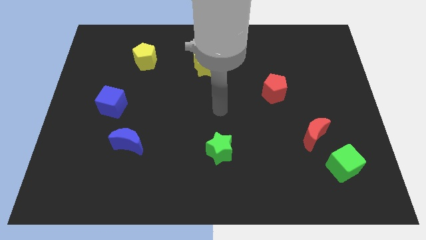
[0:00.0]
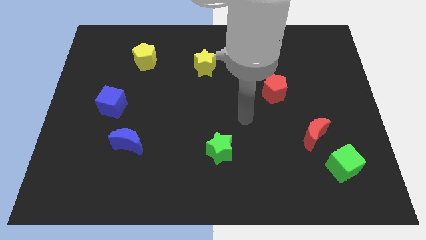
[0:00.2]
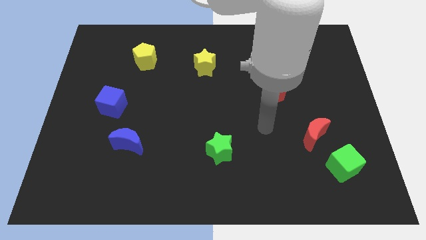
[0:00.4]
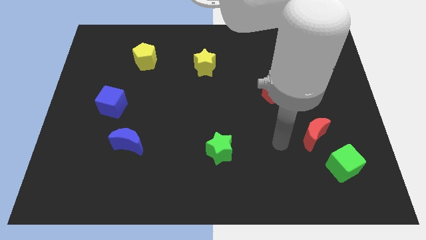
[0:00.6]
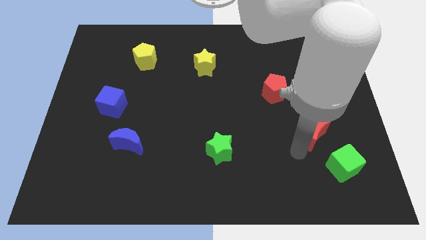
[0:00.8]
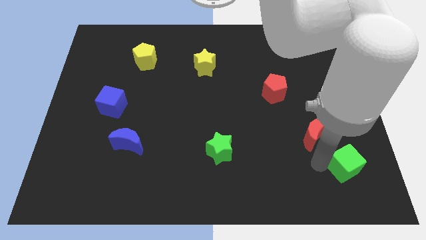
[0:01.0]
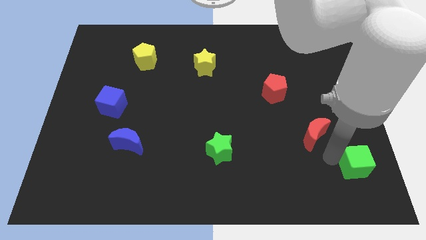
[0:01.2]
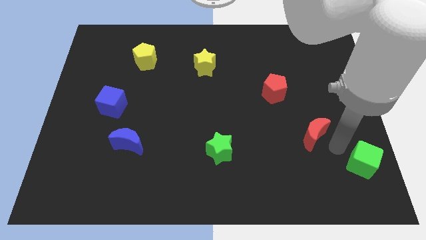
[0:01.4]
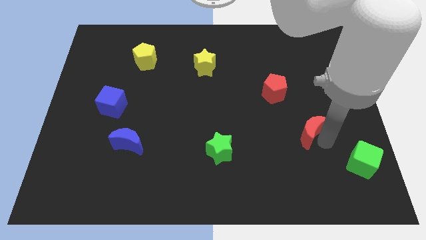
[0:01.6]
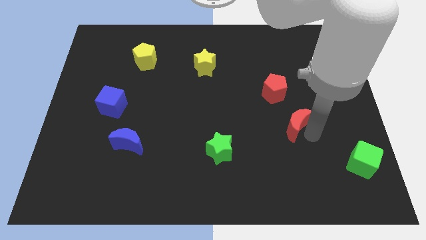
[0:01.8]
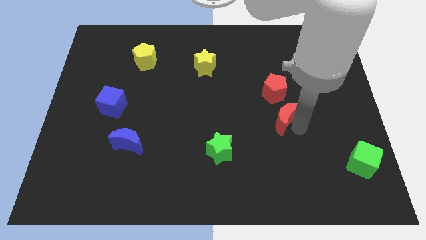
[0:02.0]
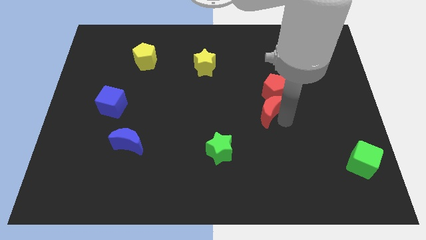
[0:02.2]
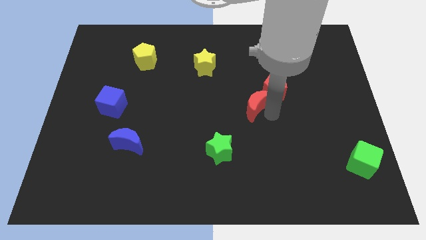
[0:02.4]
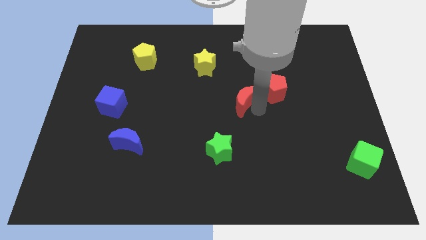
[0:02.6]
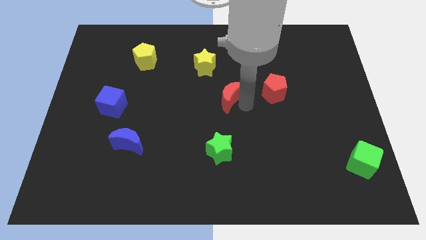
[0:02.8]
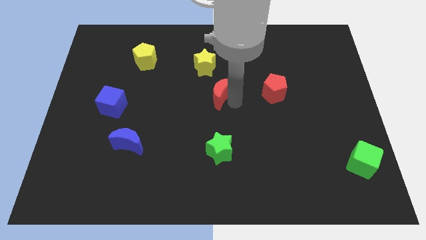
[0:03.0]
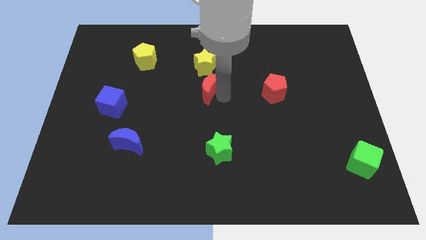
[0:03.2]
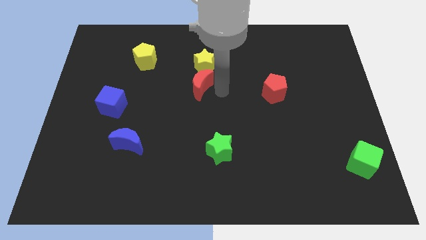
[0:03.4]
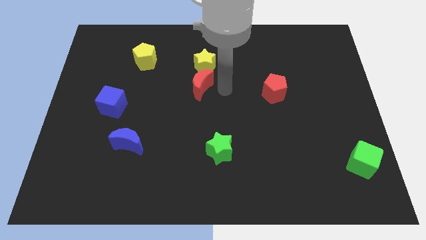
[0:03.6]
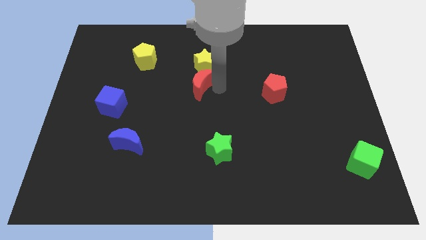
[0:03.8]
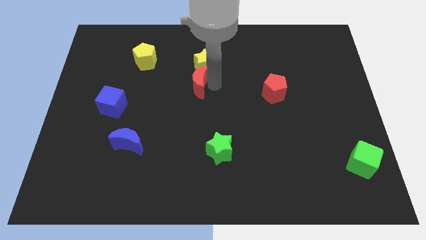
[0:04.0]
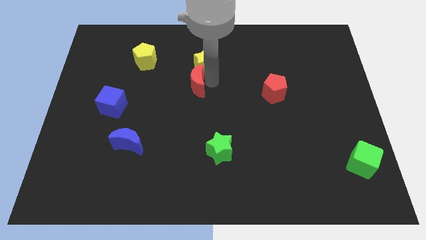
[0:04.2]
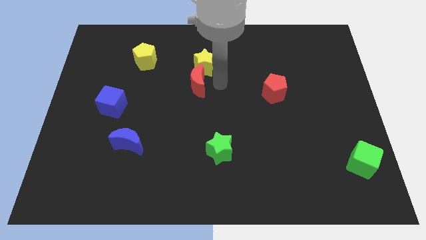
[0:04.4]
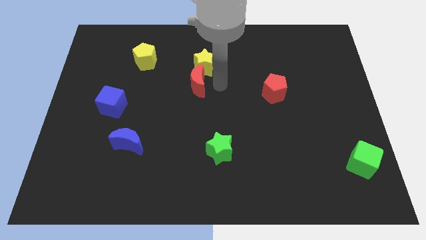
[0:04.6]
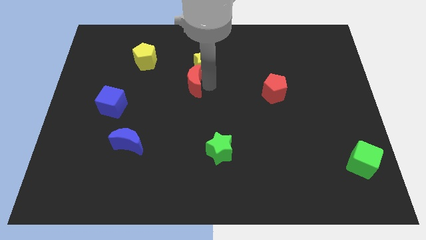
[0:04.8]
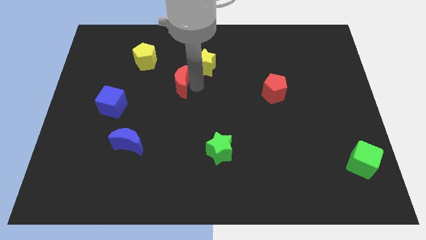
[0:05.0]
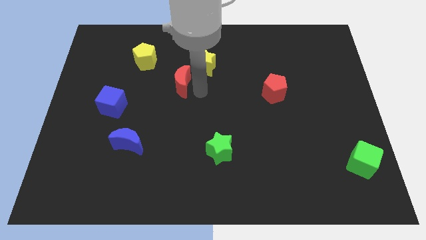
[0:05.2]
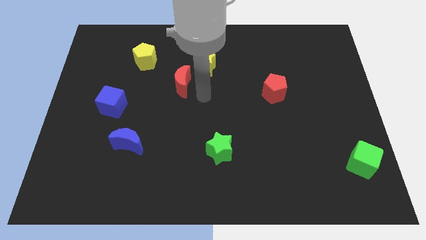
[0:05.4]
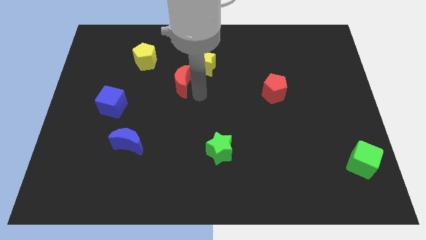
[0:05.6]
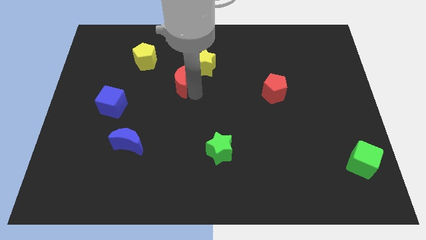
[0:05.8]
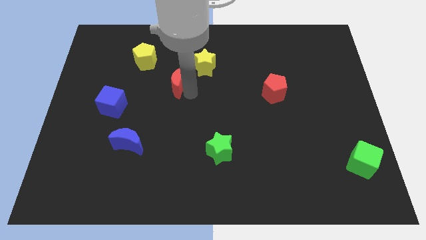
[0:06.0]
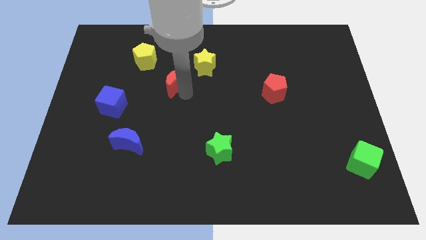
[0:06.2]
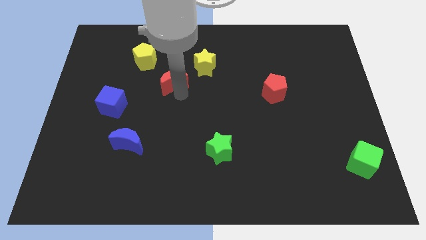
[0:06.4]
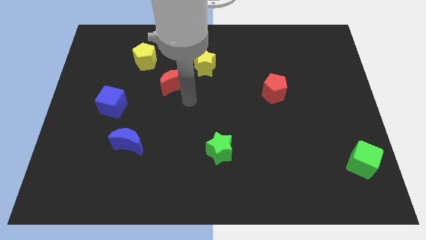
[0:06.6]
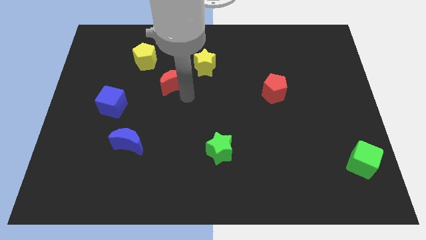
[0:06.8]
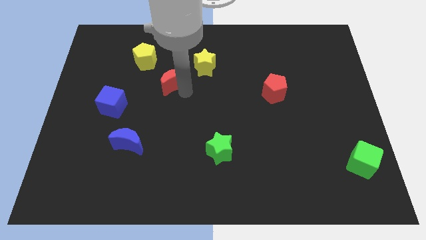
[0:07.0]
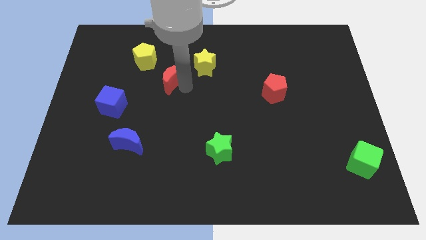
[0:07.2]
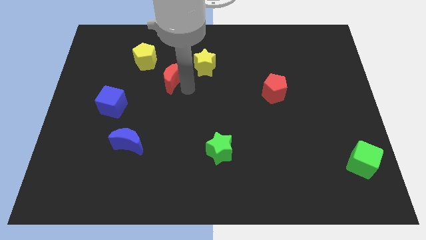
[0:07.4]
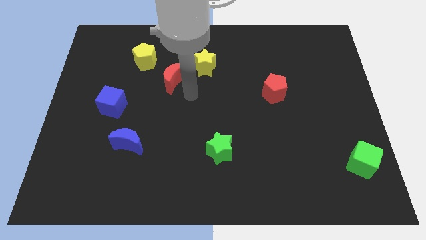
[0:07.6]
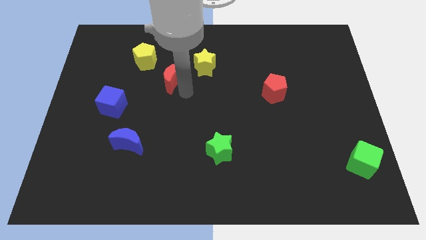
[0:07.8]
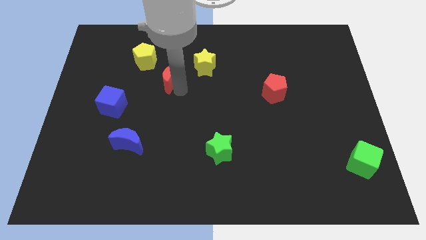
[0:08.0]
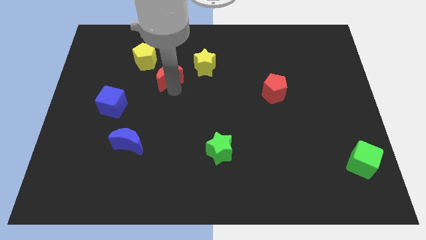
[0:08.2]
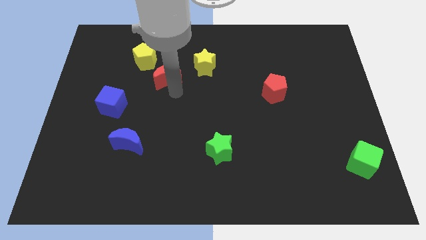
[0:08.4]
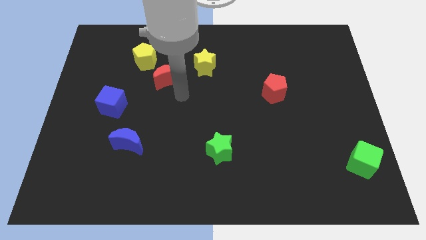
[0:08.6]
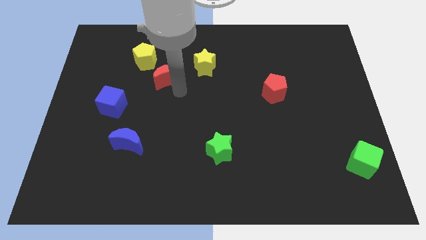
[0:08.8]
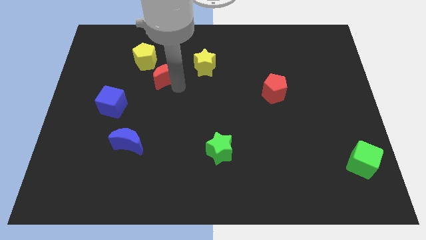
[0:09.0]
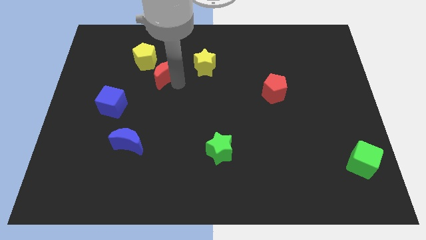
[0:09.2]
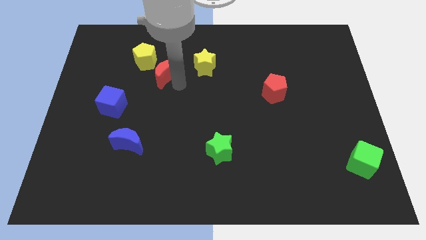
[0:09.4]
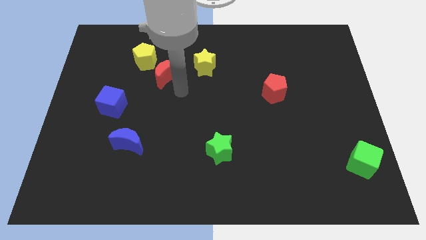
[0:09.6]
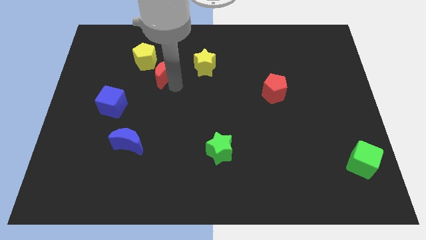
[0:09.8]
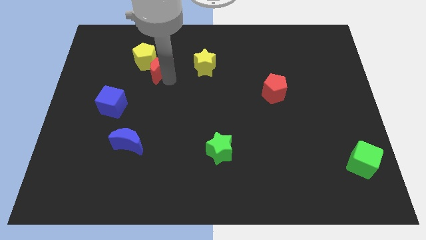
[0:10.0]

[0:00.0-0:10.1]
slide the red moon close to the yellow pentagon

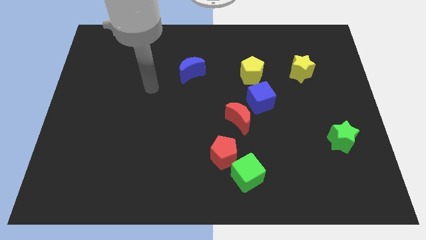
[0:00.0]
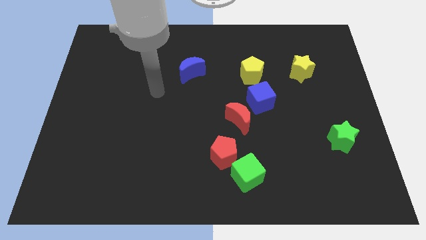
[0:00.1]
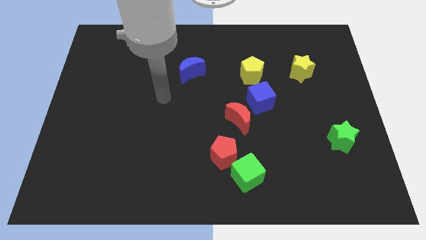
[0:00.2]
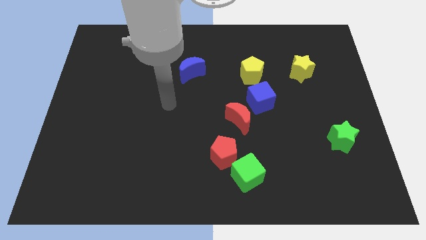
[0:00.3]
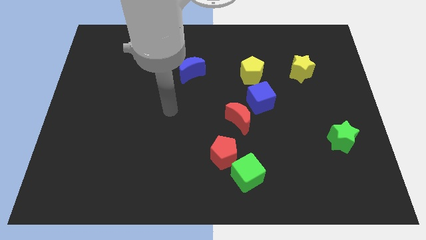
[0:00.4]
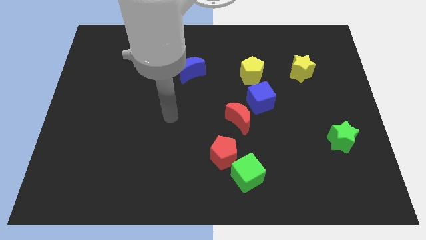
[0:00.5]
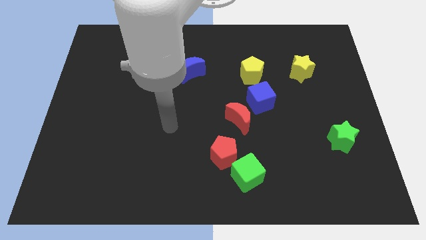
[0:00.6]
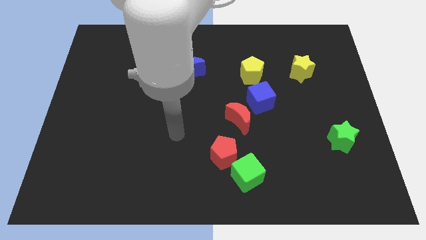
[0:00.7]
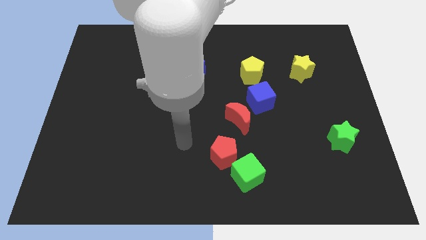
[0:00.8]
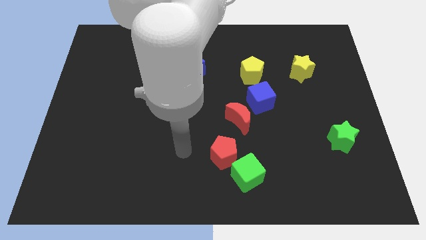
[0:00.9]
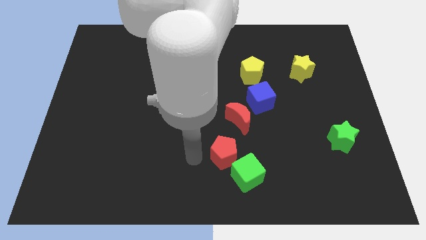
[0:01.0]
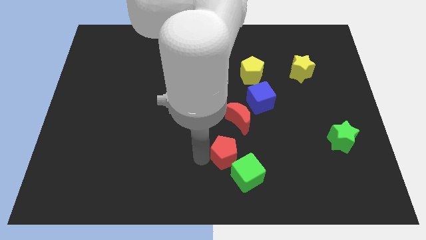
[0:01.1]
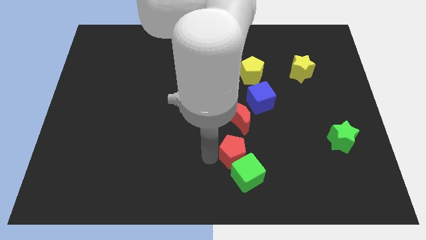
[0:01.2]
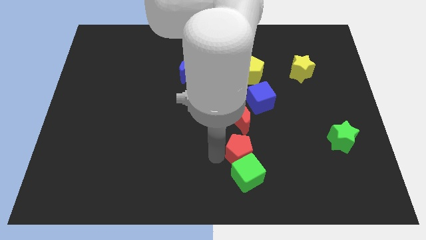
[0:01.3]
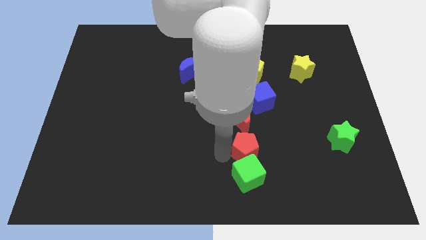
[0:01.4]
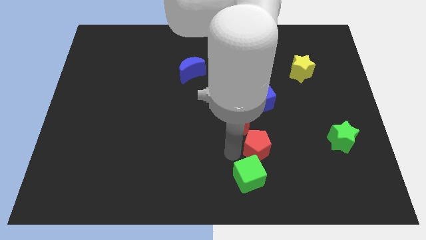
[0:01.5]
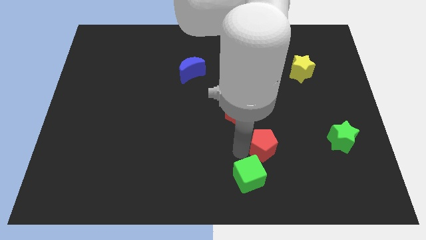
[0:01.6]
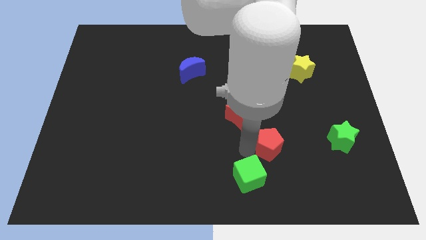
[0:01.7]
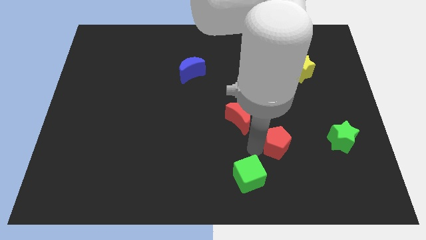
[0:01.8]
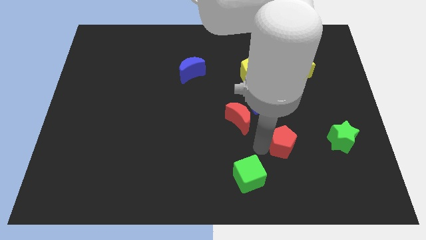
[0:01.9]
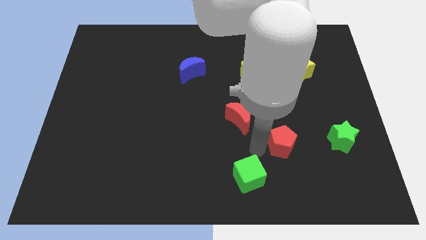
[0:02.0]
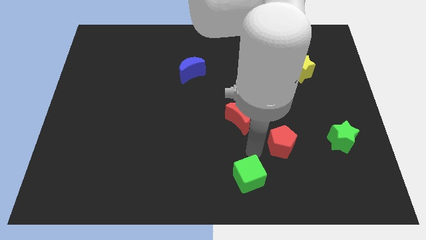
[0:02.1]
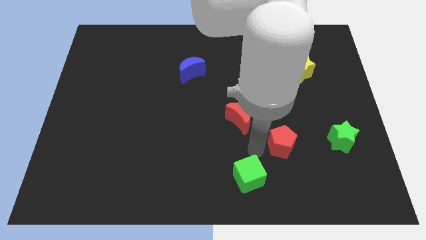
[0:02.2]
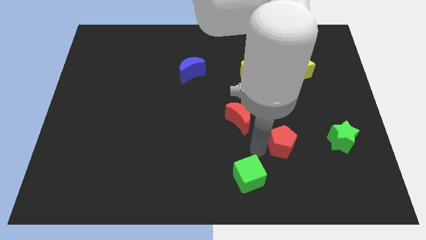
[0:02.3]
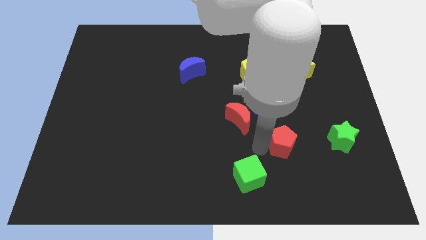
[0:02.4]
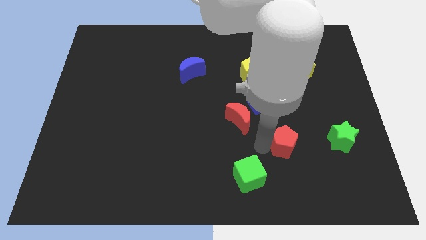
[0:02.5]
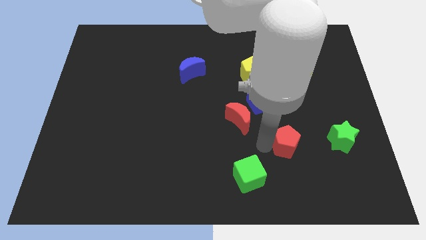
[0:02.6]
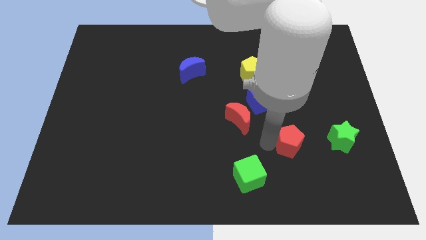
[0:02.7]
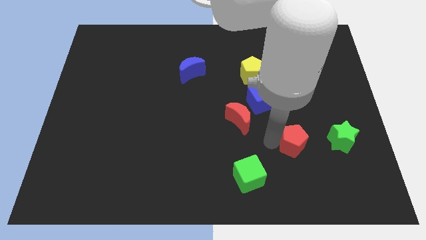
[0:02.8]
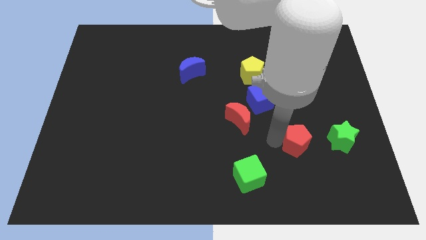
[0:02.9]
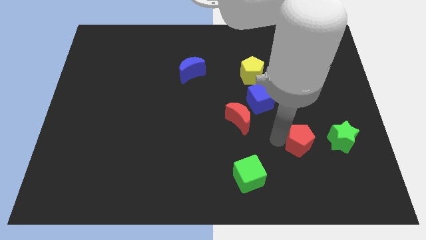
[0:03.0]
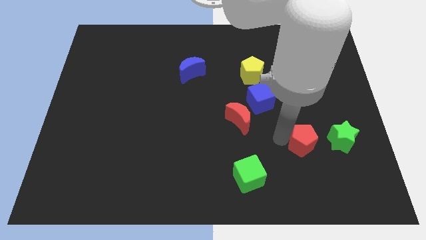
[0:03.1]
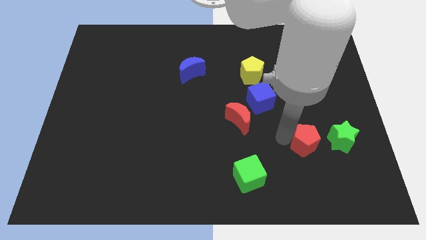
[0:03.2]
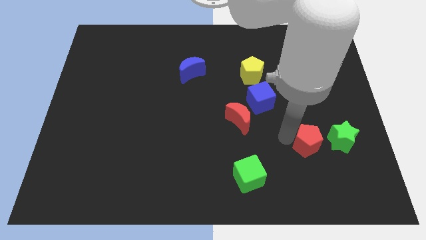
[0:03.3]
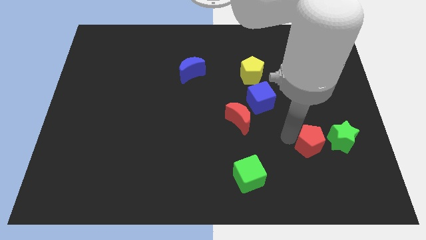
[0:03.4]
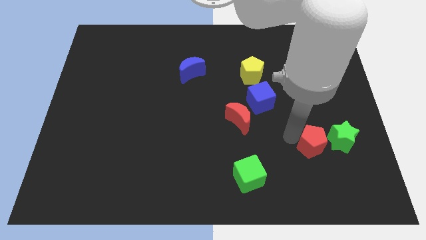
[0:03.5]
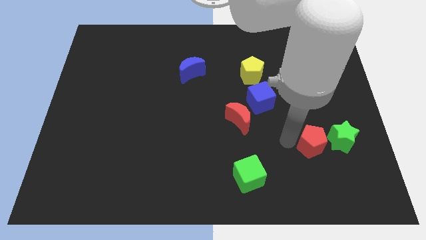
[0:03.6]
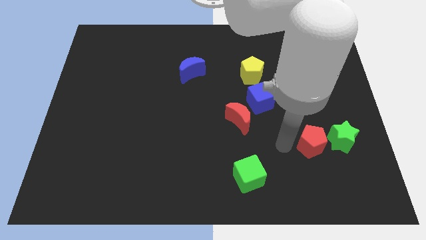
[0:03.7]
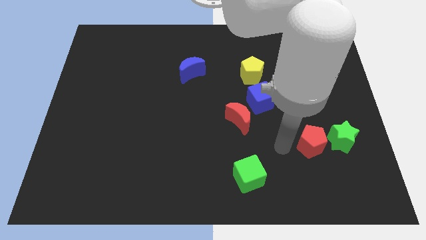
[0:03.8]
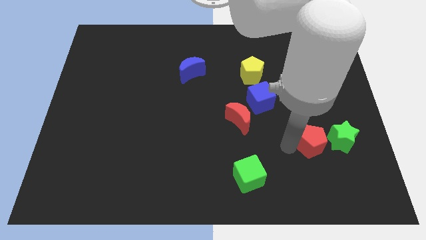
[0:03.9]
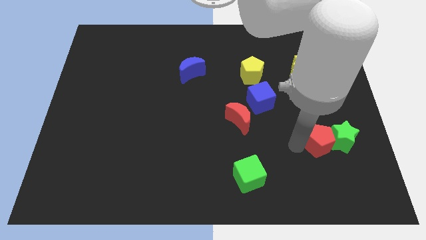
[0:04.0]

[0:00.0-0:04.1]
move the red pentagon towards the green star
